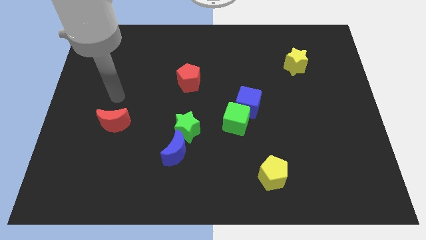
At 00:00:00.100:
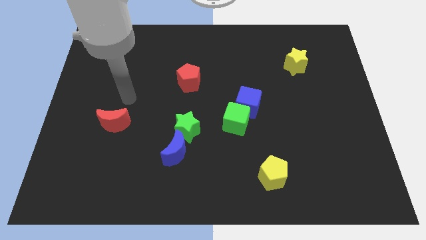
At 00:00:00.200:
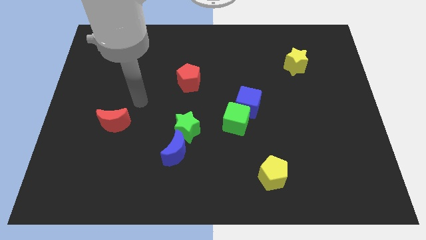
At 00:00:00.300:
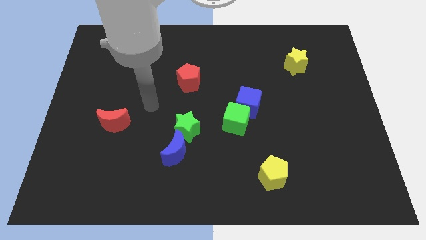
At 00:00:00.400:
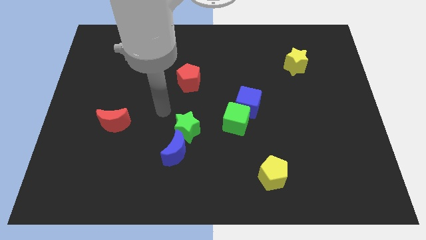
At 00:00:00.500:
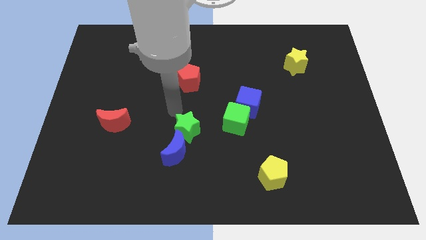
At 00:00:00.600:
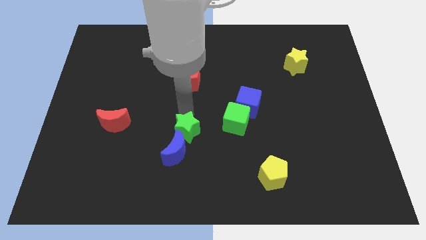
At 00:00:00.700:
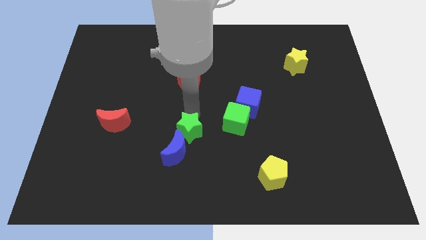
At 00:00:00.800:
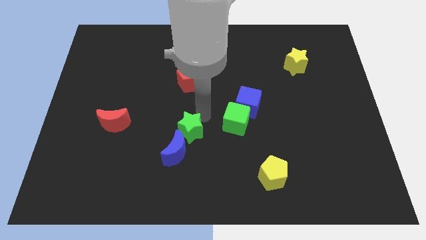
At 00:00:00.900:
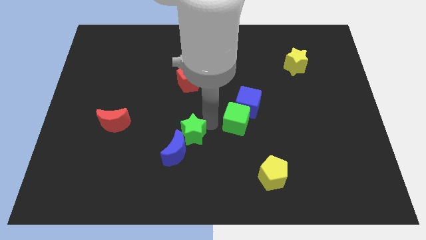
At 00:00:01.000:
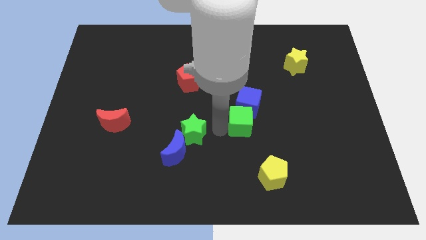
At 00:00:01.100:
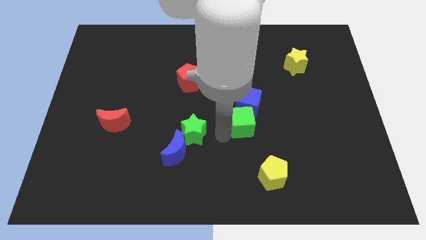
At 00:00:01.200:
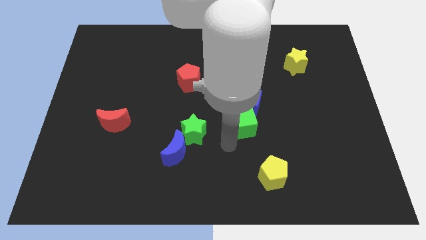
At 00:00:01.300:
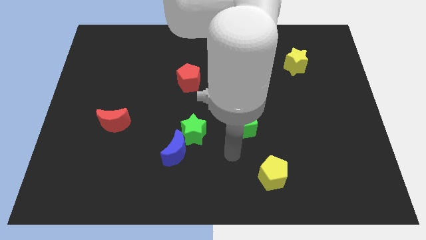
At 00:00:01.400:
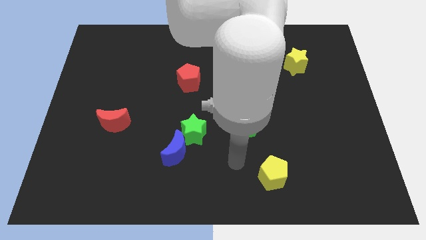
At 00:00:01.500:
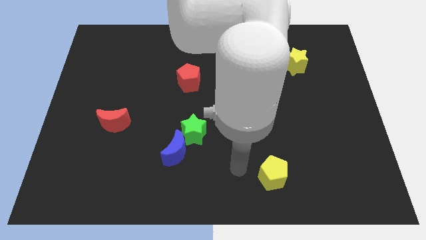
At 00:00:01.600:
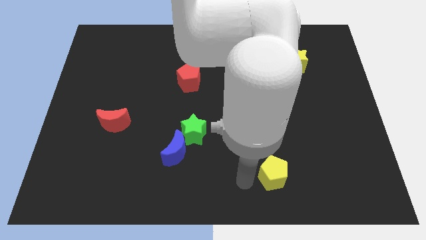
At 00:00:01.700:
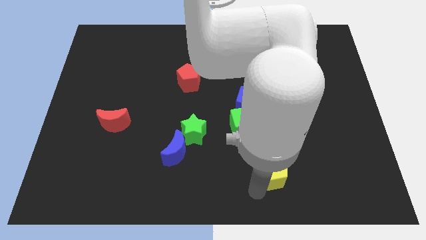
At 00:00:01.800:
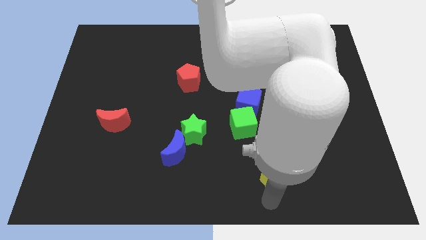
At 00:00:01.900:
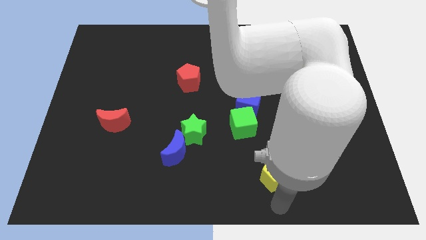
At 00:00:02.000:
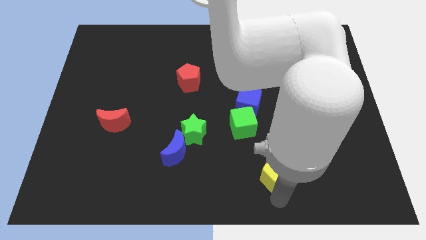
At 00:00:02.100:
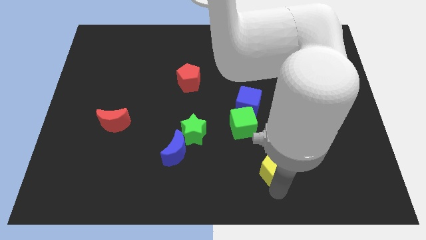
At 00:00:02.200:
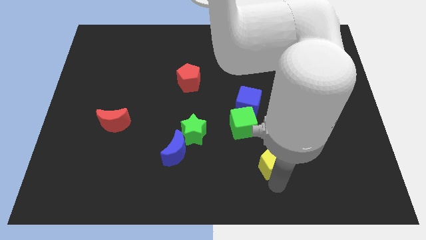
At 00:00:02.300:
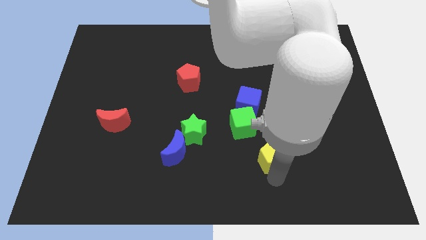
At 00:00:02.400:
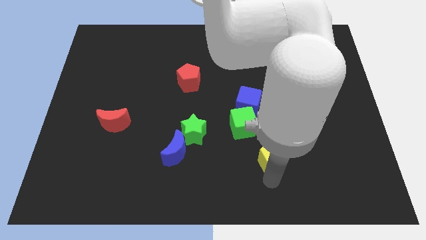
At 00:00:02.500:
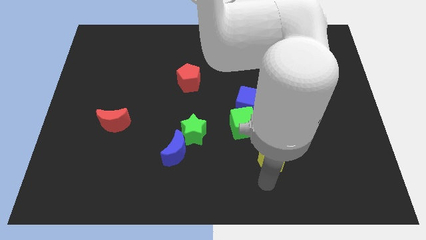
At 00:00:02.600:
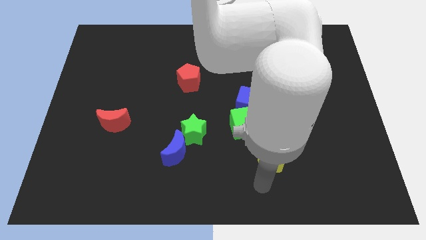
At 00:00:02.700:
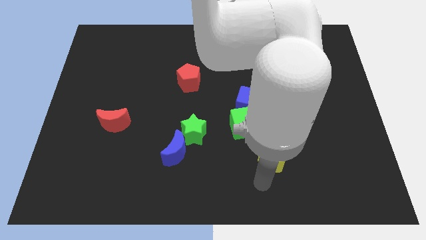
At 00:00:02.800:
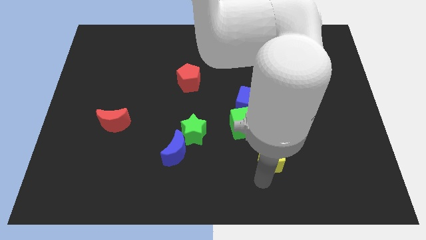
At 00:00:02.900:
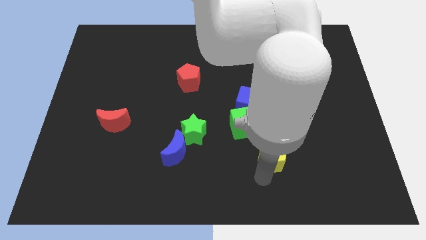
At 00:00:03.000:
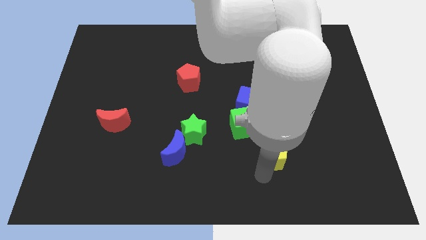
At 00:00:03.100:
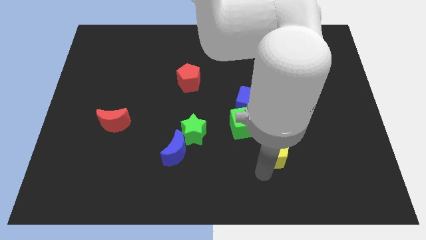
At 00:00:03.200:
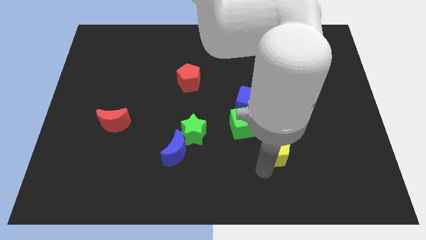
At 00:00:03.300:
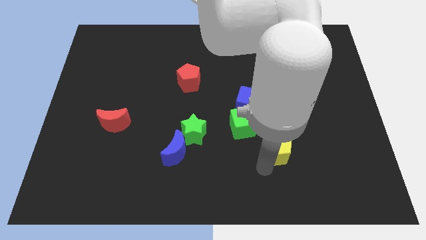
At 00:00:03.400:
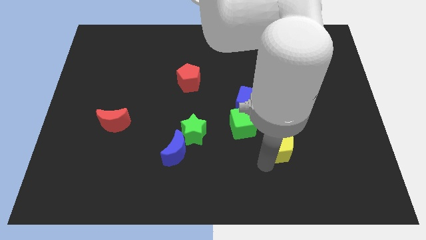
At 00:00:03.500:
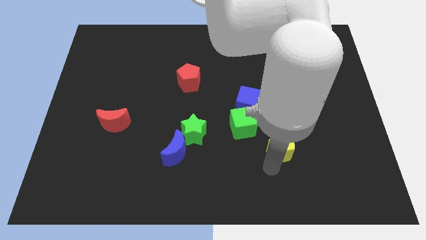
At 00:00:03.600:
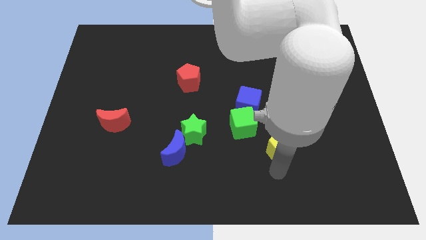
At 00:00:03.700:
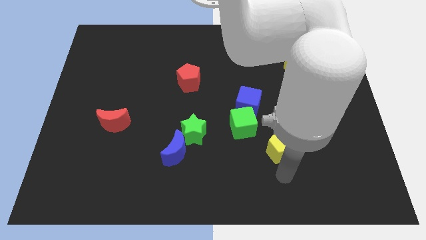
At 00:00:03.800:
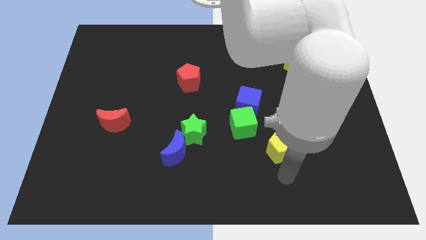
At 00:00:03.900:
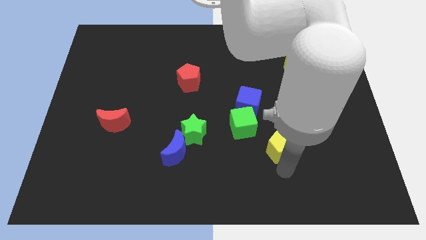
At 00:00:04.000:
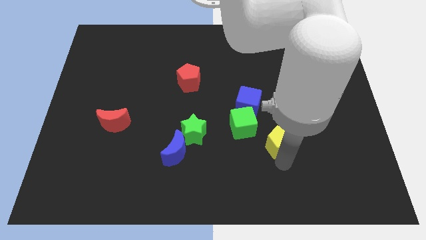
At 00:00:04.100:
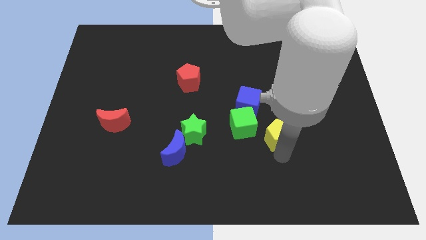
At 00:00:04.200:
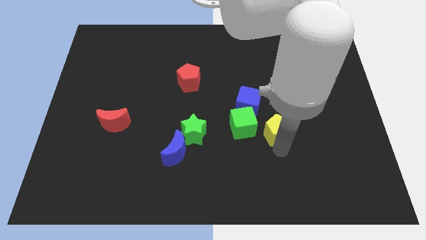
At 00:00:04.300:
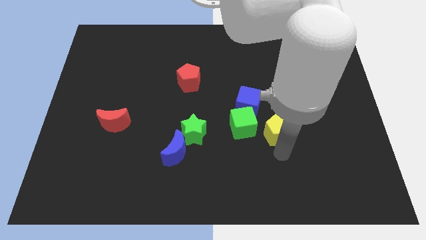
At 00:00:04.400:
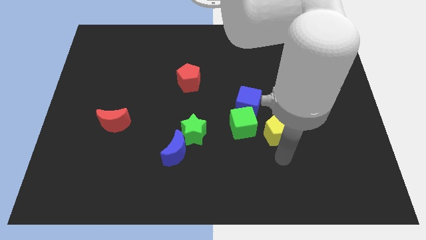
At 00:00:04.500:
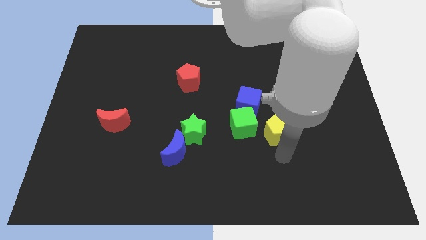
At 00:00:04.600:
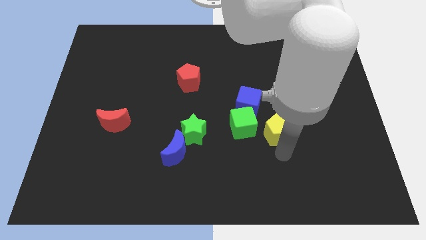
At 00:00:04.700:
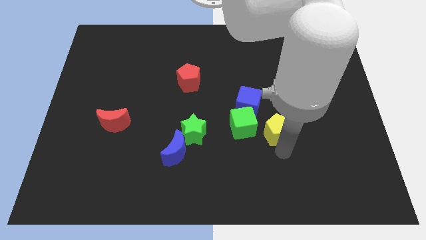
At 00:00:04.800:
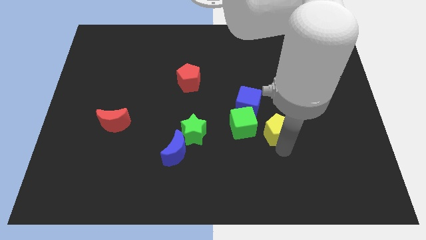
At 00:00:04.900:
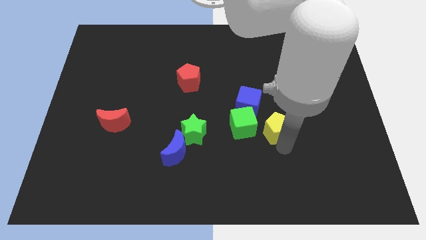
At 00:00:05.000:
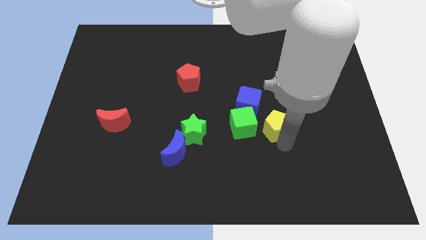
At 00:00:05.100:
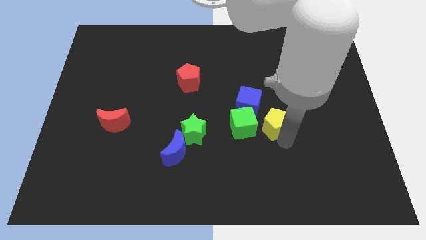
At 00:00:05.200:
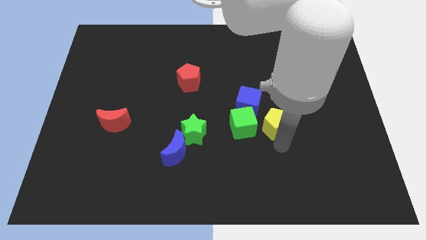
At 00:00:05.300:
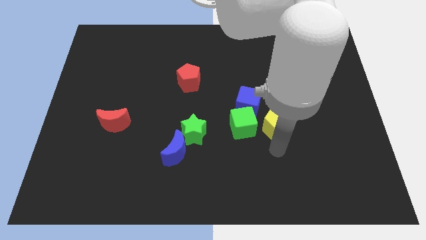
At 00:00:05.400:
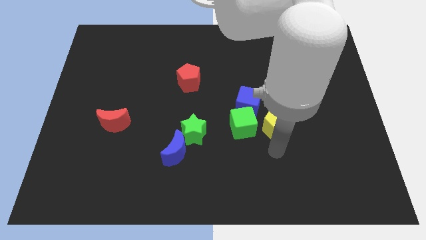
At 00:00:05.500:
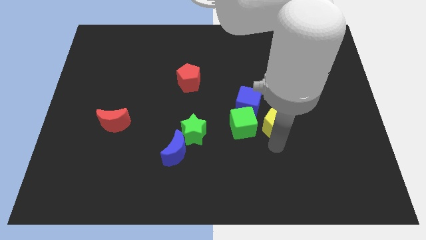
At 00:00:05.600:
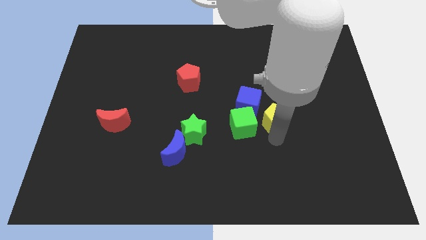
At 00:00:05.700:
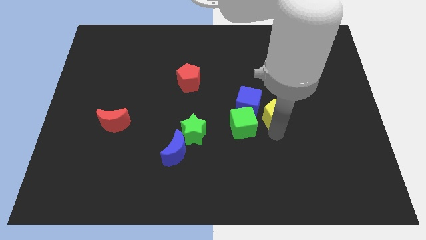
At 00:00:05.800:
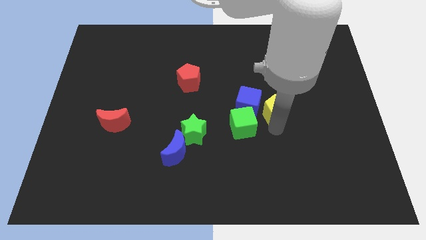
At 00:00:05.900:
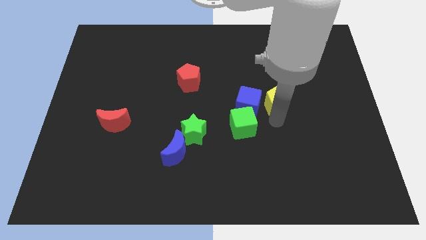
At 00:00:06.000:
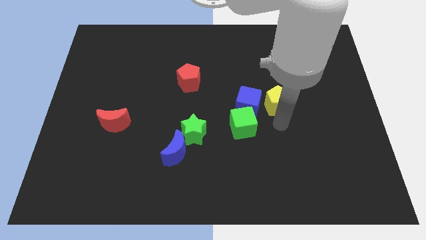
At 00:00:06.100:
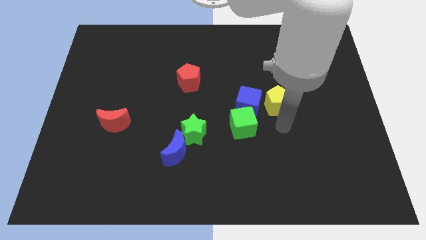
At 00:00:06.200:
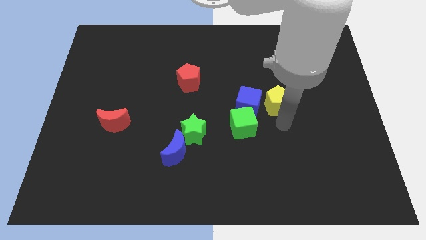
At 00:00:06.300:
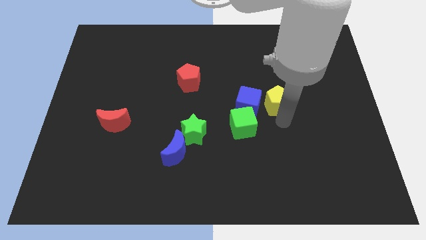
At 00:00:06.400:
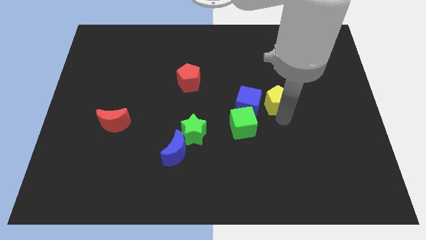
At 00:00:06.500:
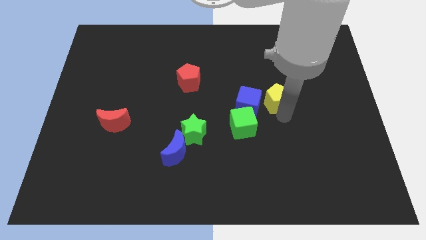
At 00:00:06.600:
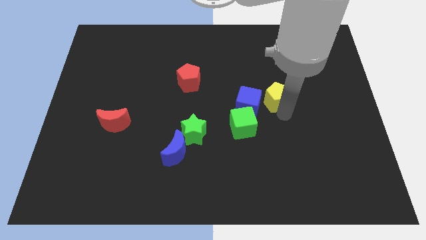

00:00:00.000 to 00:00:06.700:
slide the yellow pentagon upwards

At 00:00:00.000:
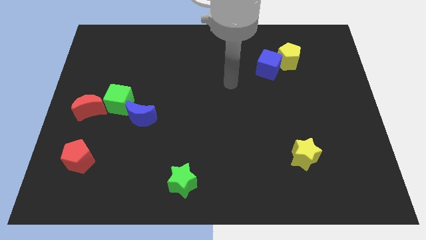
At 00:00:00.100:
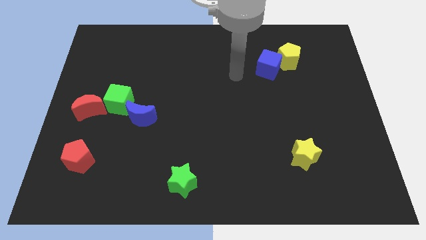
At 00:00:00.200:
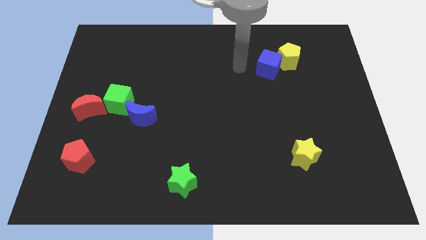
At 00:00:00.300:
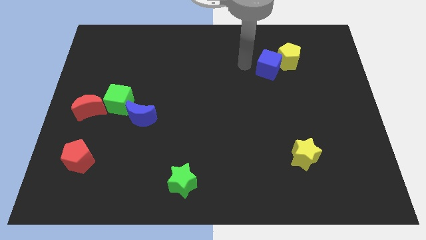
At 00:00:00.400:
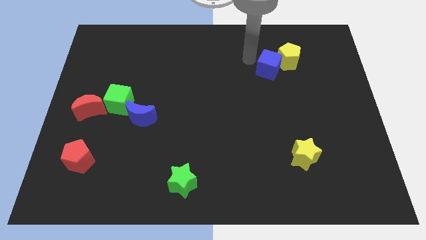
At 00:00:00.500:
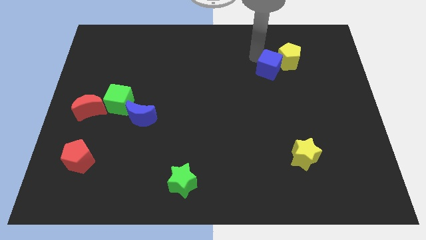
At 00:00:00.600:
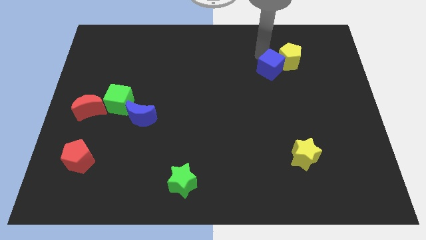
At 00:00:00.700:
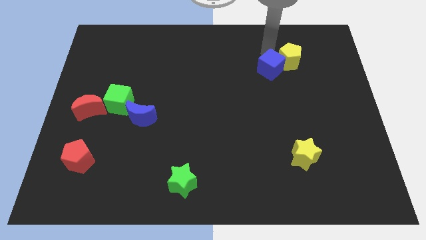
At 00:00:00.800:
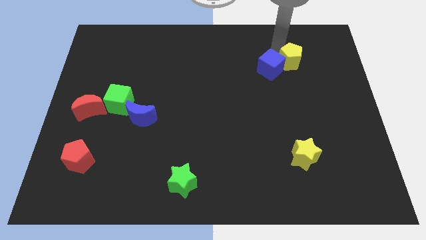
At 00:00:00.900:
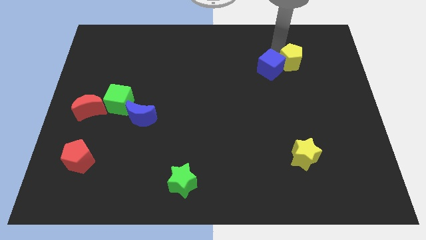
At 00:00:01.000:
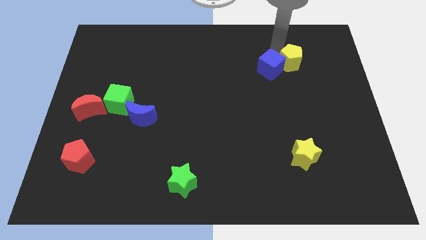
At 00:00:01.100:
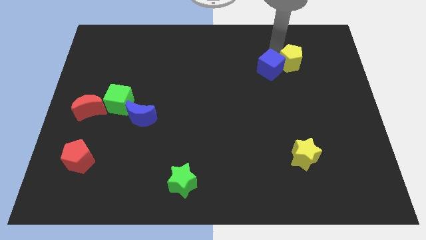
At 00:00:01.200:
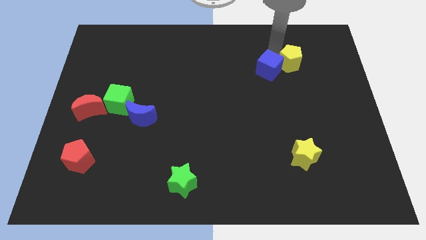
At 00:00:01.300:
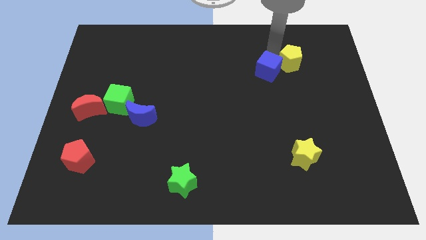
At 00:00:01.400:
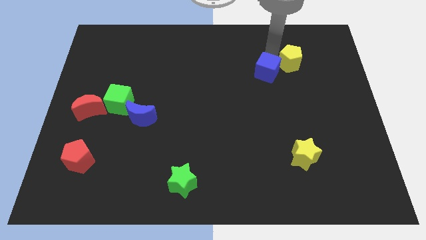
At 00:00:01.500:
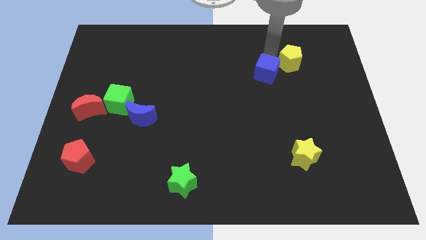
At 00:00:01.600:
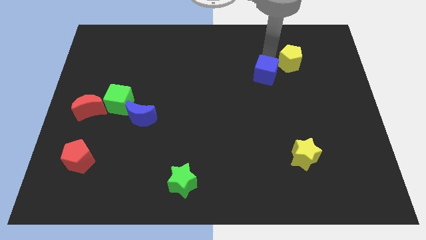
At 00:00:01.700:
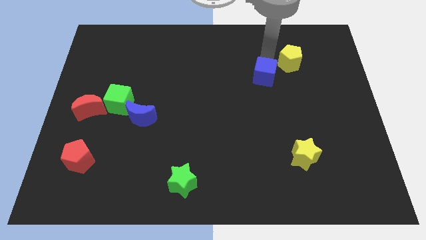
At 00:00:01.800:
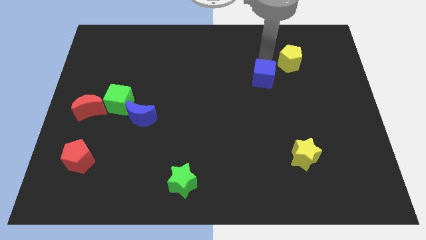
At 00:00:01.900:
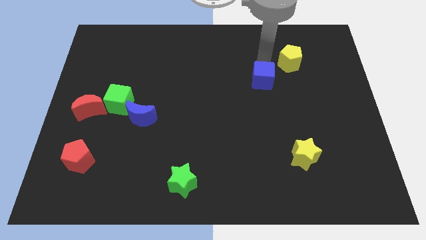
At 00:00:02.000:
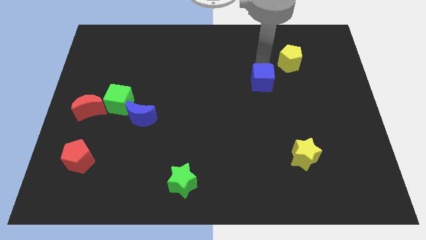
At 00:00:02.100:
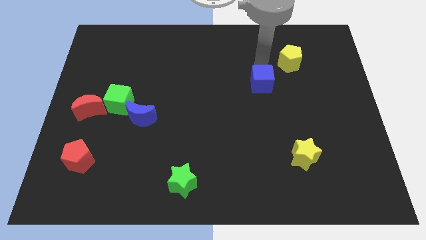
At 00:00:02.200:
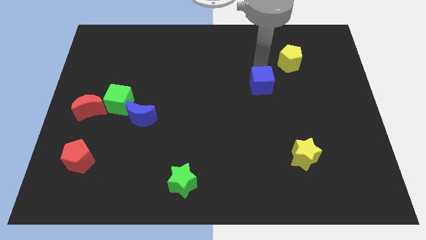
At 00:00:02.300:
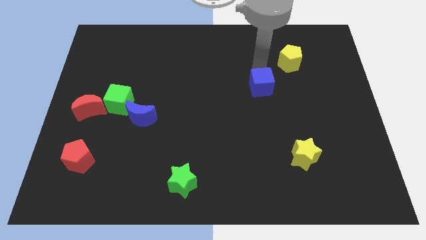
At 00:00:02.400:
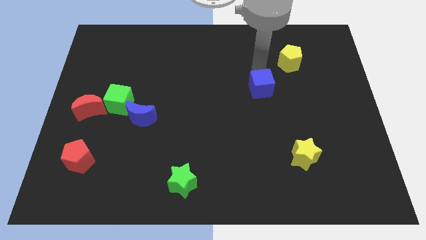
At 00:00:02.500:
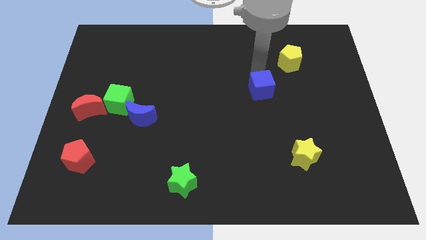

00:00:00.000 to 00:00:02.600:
slide the blue cube downwards a bit
